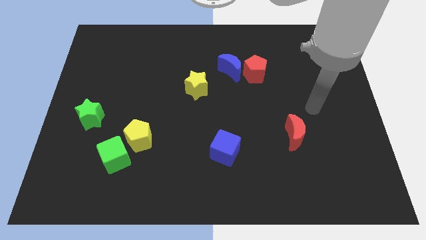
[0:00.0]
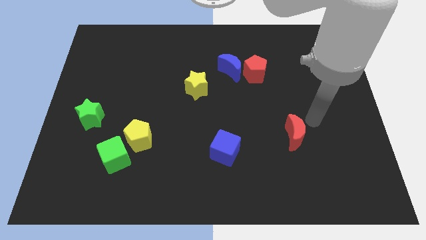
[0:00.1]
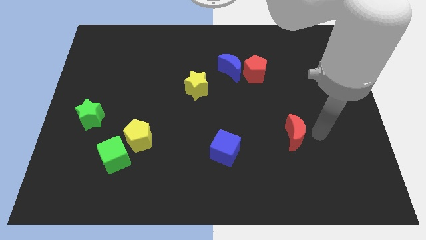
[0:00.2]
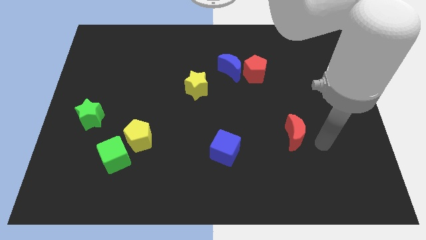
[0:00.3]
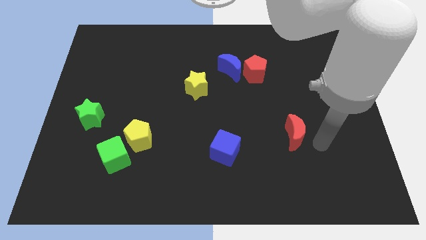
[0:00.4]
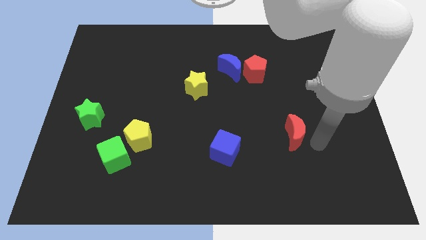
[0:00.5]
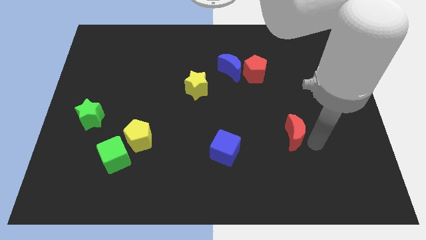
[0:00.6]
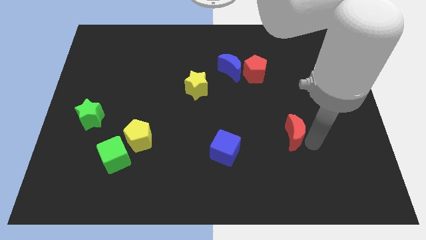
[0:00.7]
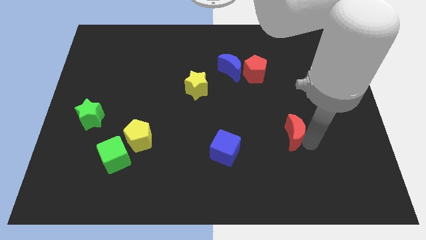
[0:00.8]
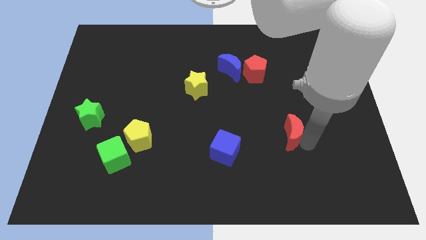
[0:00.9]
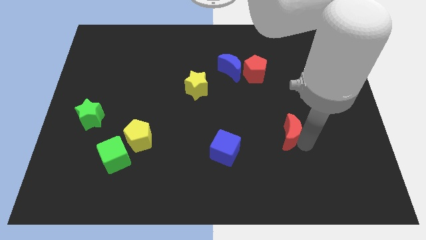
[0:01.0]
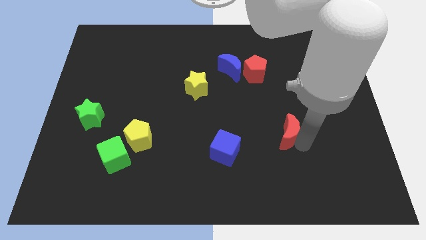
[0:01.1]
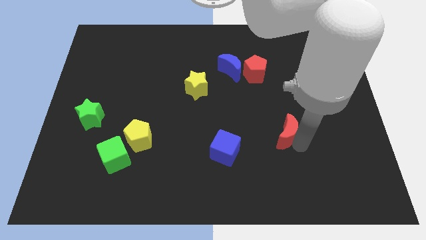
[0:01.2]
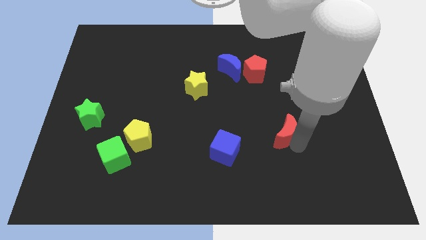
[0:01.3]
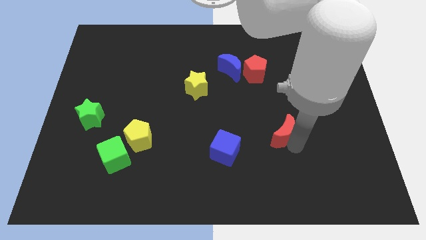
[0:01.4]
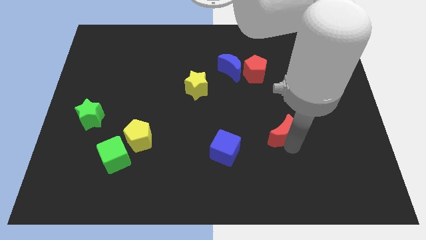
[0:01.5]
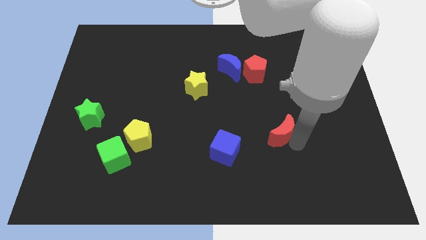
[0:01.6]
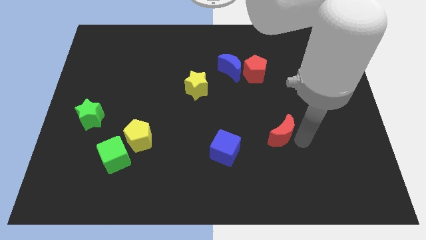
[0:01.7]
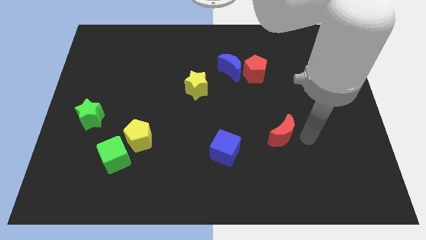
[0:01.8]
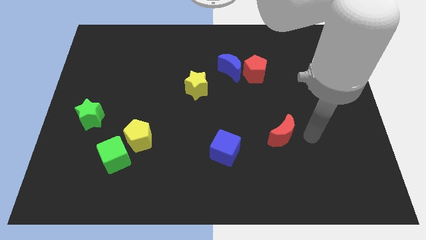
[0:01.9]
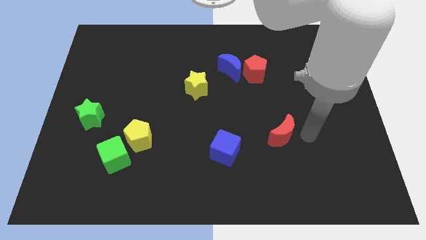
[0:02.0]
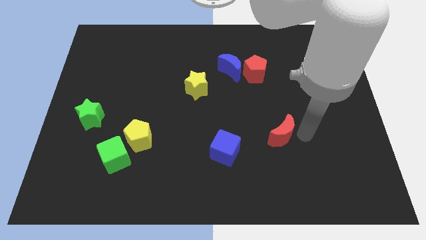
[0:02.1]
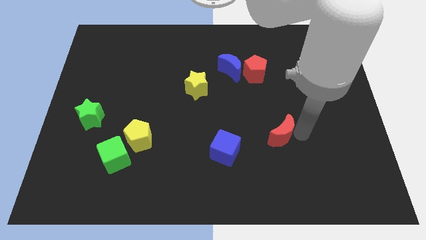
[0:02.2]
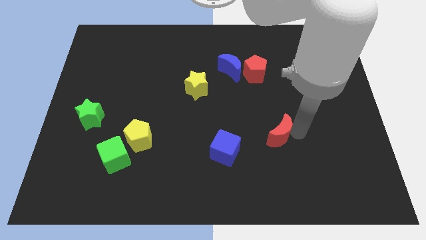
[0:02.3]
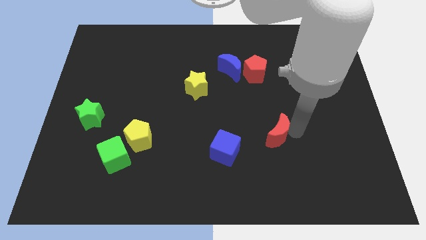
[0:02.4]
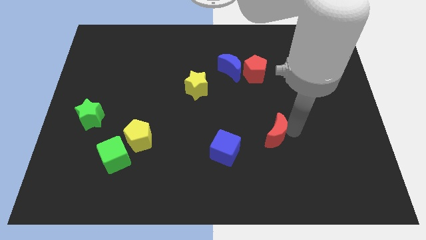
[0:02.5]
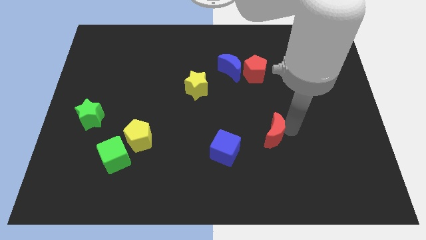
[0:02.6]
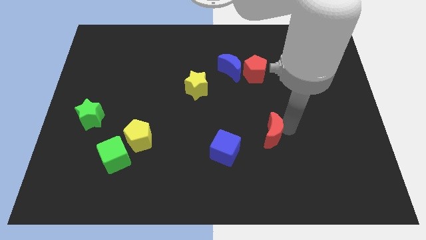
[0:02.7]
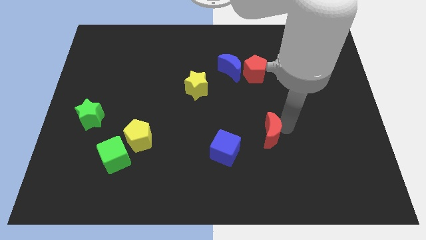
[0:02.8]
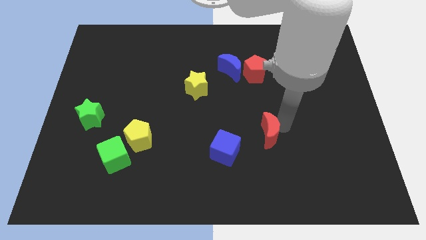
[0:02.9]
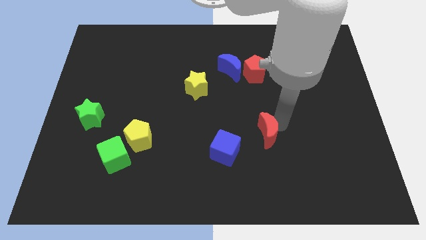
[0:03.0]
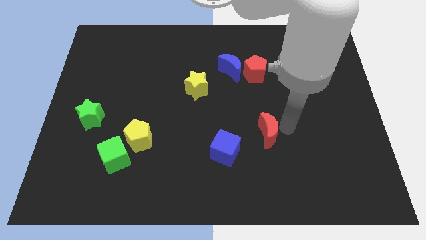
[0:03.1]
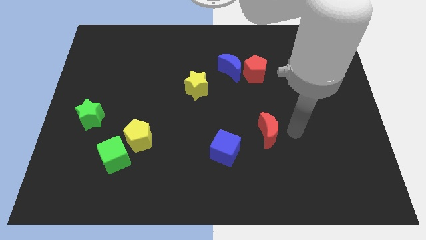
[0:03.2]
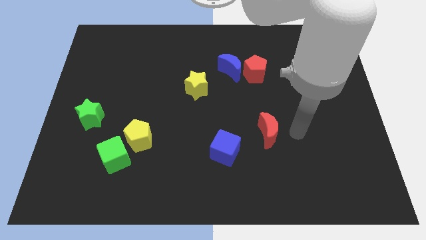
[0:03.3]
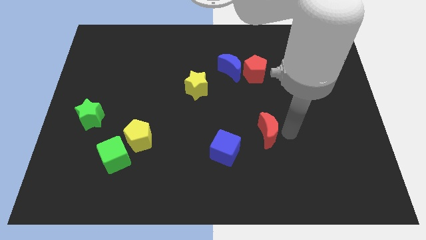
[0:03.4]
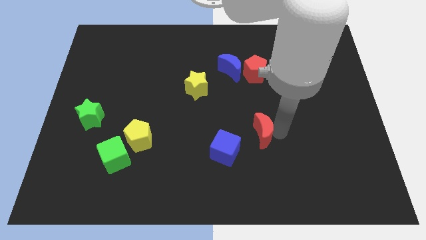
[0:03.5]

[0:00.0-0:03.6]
move the red moon a little bit left

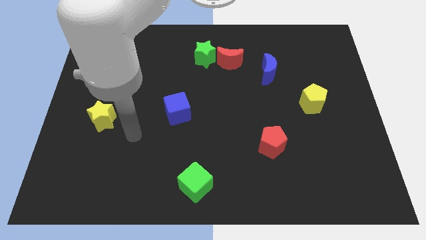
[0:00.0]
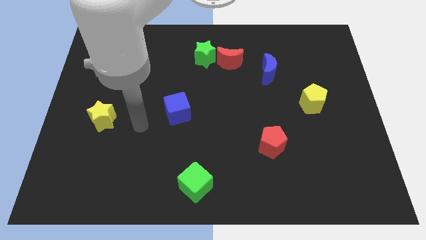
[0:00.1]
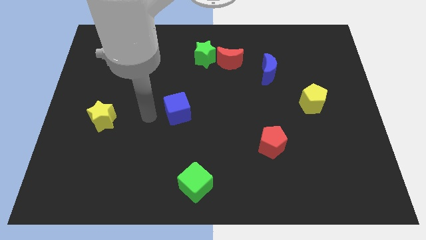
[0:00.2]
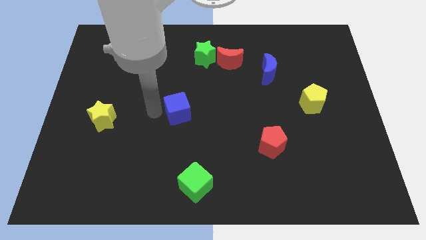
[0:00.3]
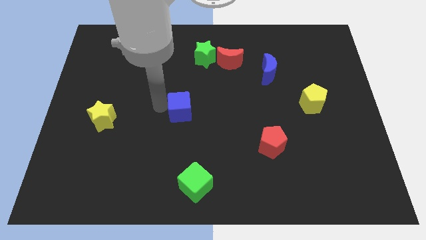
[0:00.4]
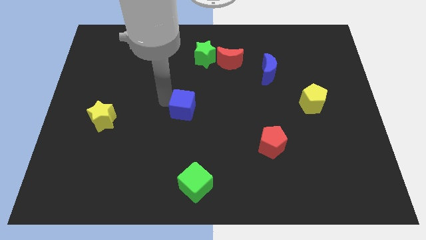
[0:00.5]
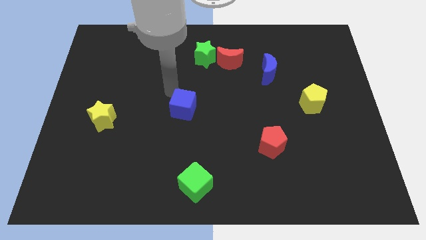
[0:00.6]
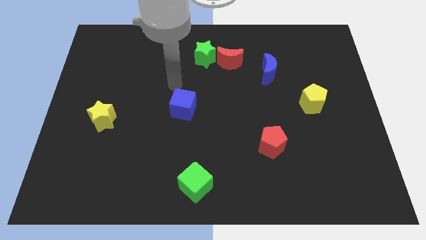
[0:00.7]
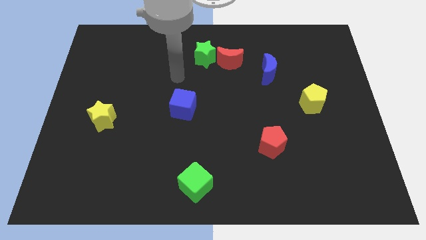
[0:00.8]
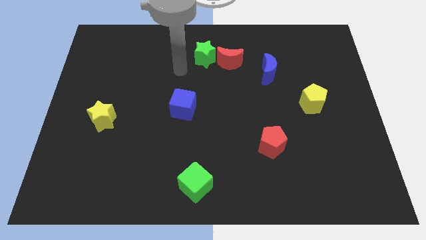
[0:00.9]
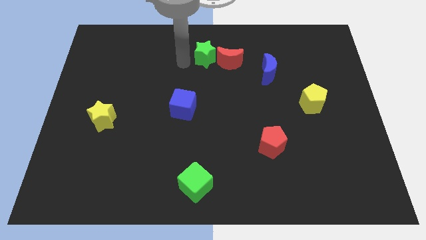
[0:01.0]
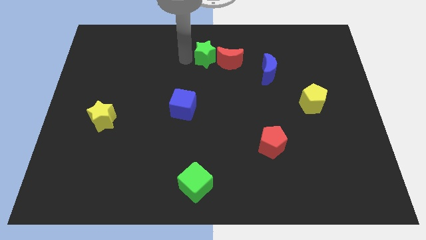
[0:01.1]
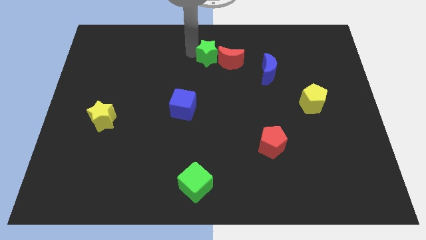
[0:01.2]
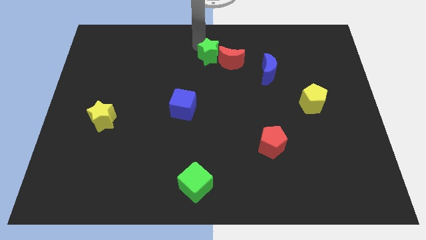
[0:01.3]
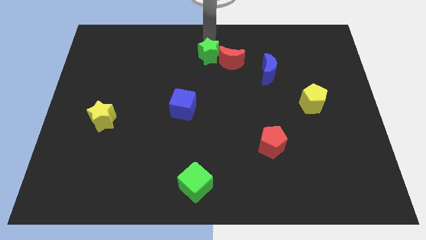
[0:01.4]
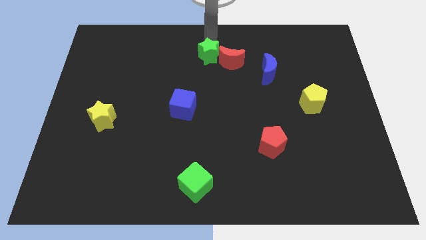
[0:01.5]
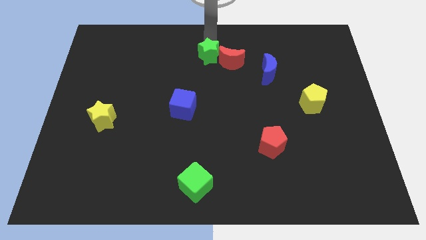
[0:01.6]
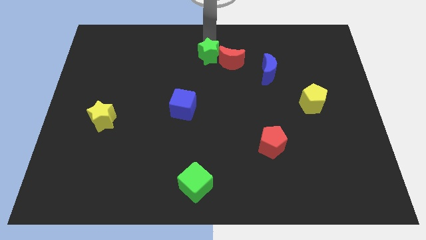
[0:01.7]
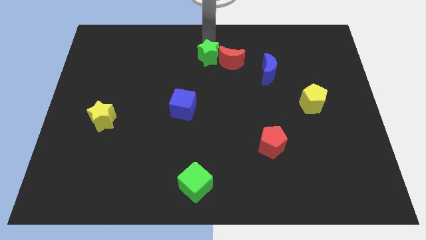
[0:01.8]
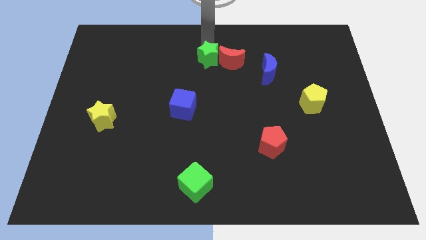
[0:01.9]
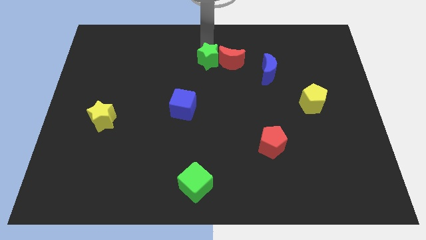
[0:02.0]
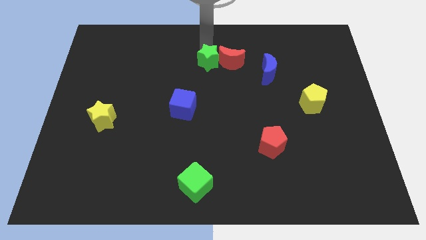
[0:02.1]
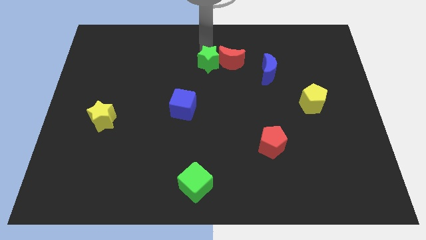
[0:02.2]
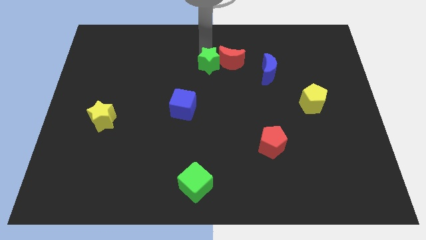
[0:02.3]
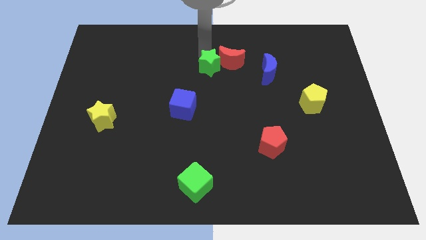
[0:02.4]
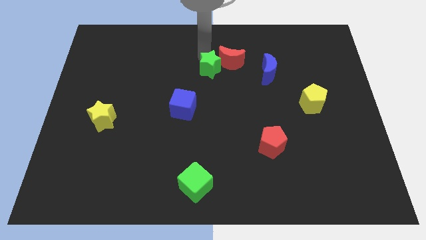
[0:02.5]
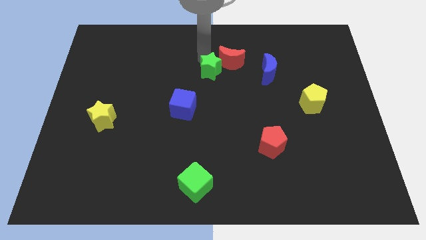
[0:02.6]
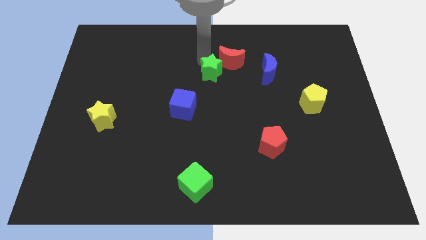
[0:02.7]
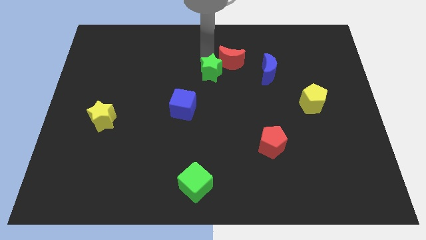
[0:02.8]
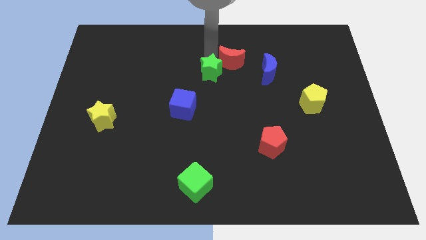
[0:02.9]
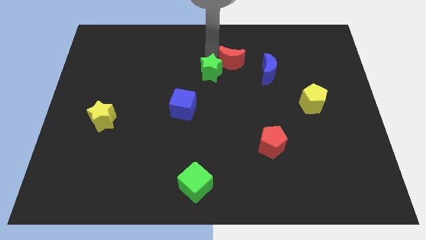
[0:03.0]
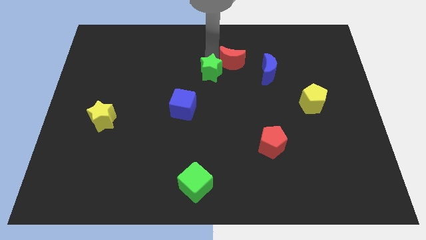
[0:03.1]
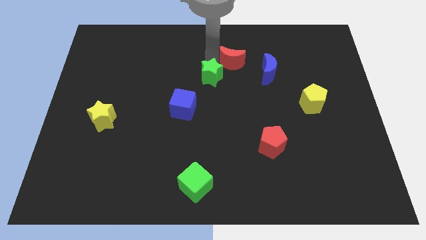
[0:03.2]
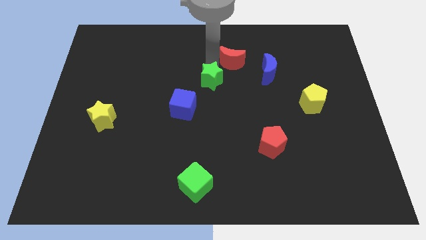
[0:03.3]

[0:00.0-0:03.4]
push the green star downwards somewhat

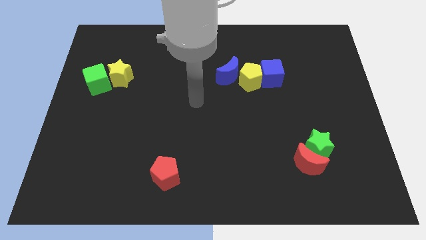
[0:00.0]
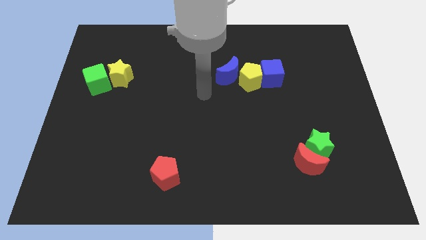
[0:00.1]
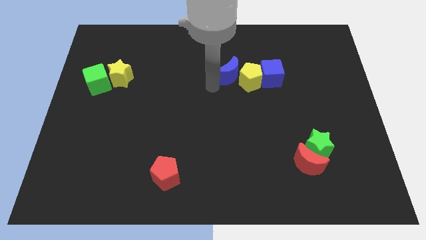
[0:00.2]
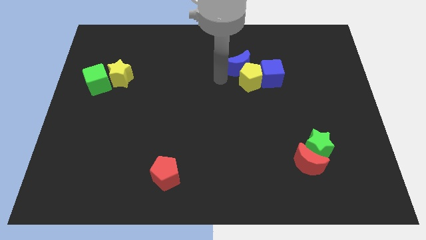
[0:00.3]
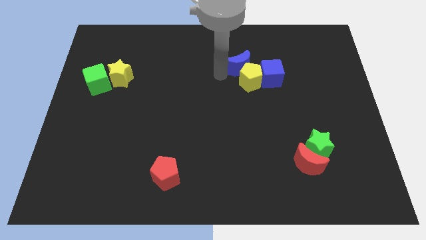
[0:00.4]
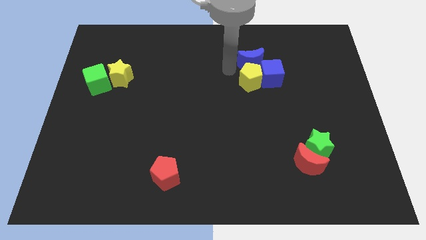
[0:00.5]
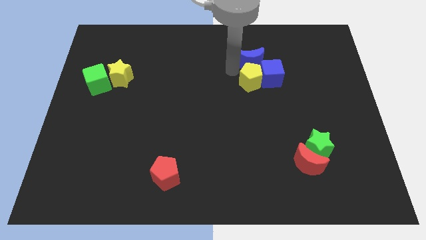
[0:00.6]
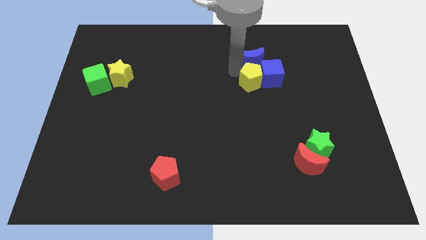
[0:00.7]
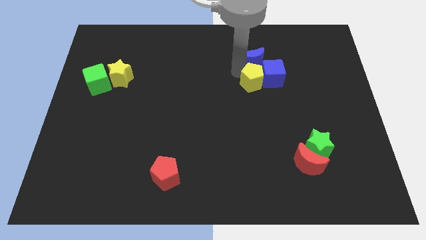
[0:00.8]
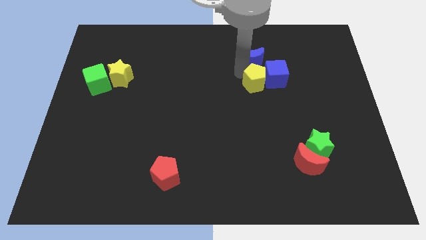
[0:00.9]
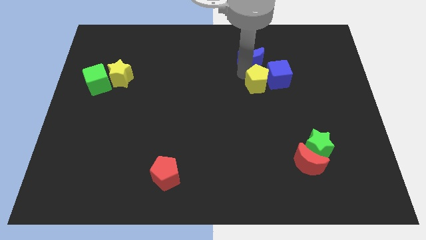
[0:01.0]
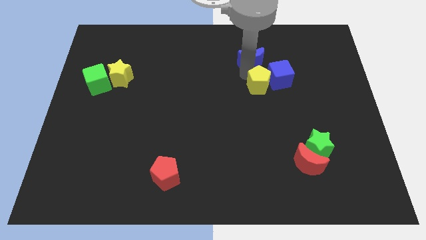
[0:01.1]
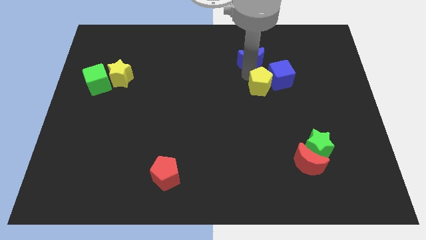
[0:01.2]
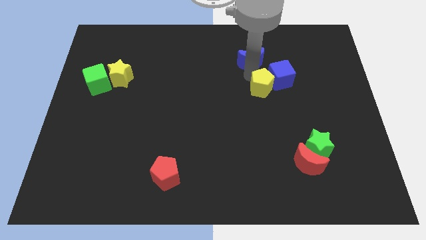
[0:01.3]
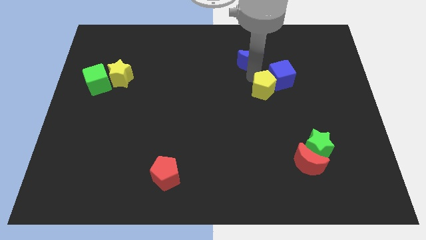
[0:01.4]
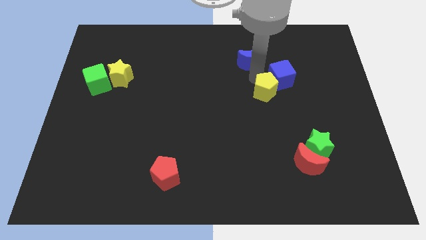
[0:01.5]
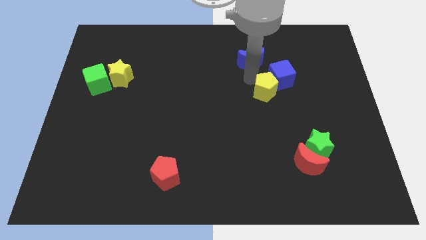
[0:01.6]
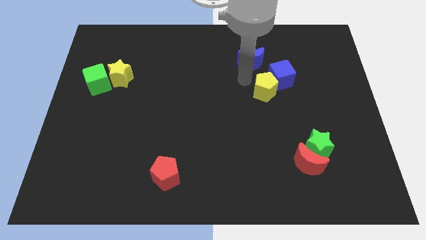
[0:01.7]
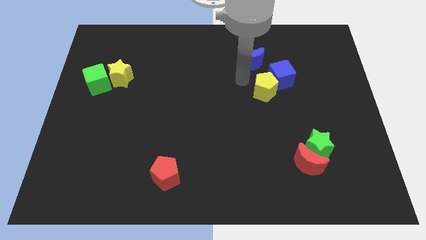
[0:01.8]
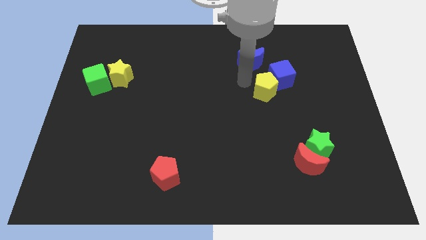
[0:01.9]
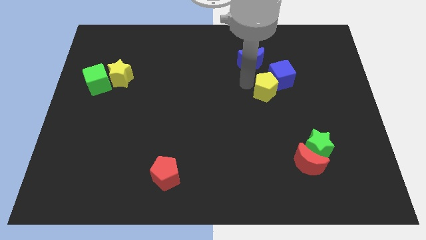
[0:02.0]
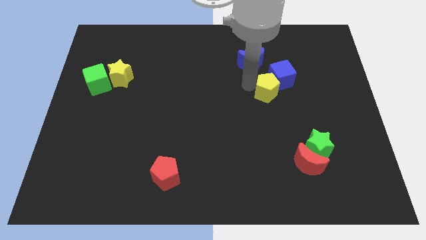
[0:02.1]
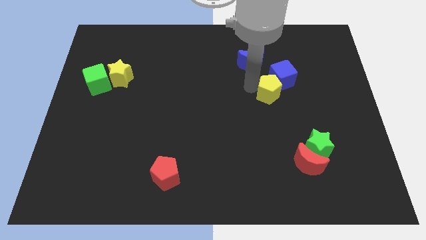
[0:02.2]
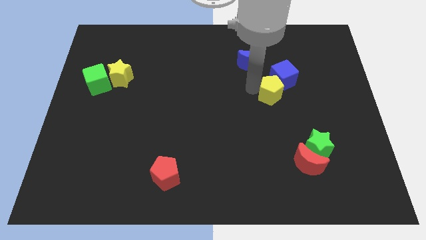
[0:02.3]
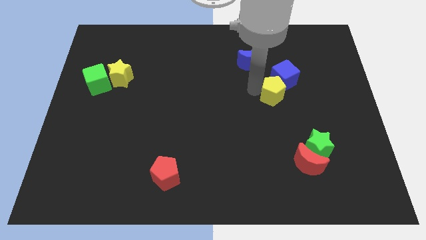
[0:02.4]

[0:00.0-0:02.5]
move the yellow pentagon downwards and to the right diagonally slightly
